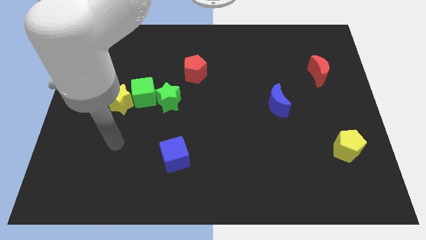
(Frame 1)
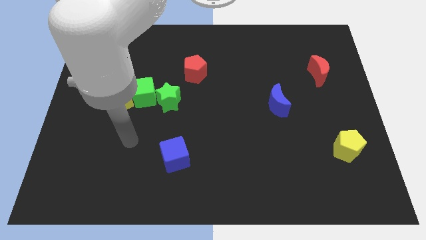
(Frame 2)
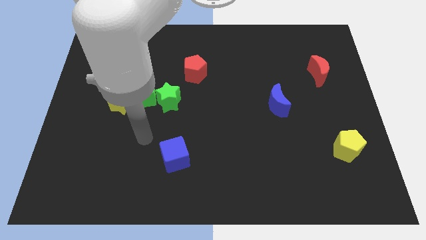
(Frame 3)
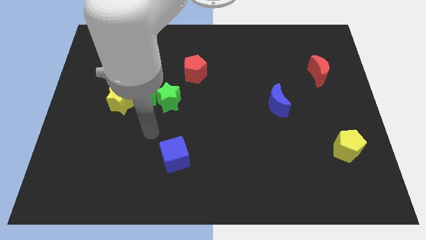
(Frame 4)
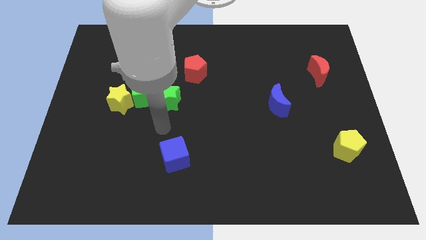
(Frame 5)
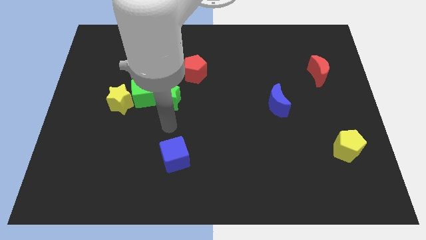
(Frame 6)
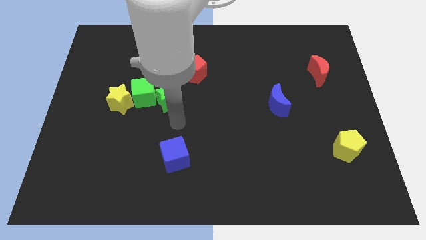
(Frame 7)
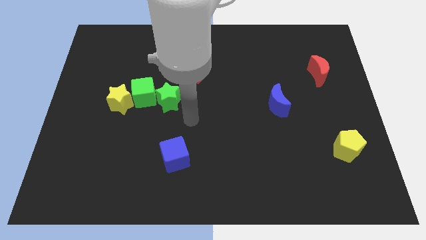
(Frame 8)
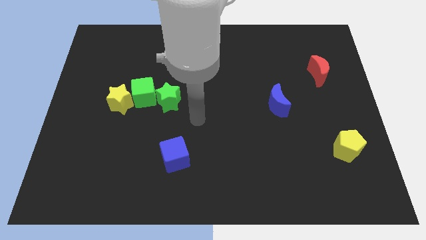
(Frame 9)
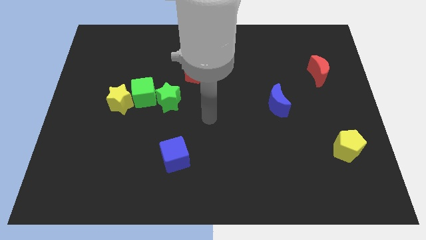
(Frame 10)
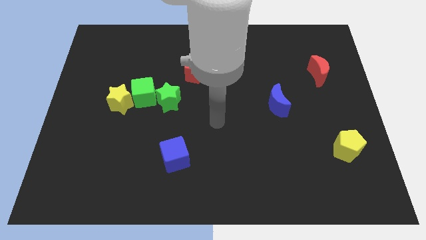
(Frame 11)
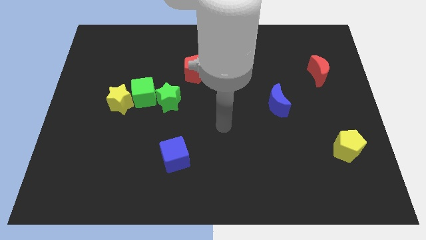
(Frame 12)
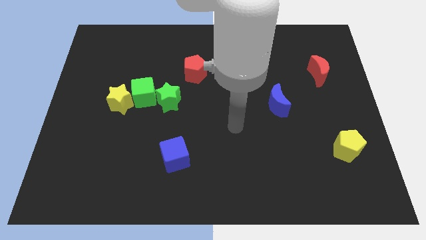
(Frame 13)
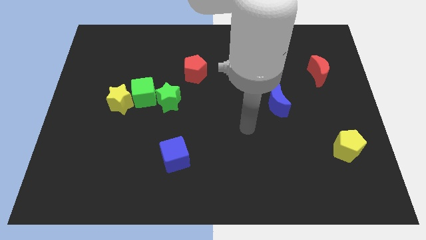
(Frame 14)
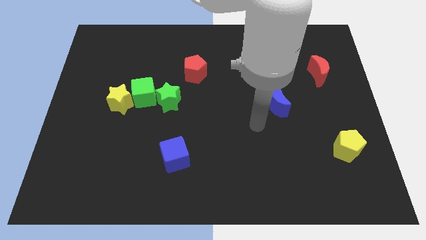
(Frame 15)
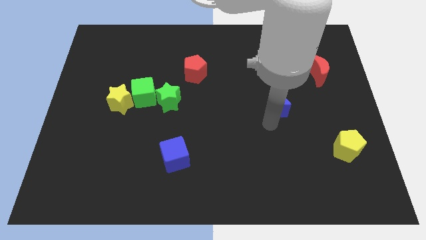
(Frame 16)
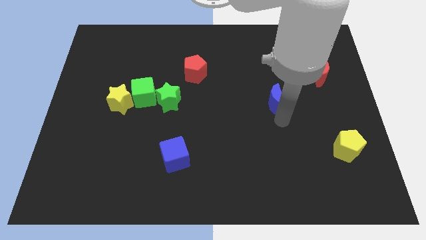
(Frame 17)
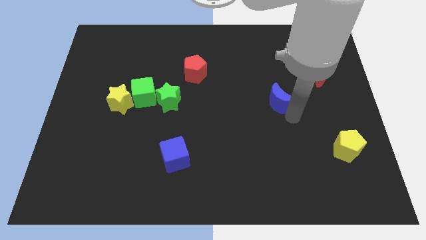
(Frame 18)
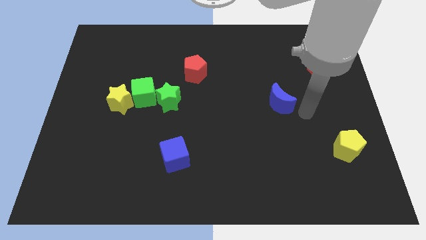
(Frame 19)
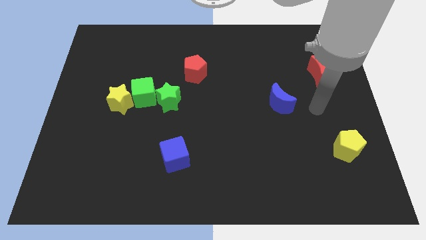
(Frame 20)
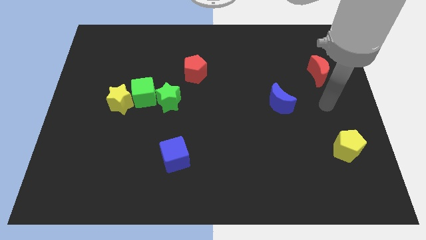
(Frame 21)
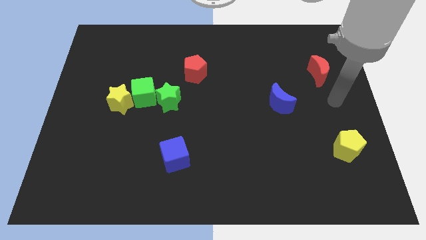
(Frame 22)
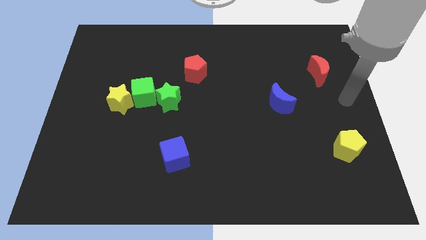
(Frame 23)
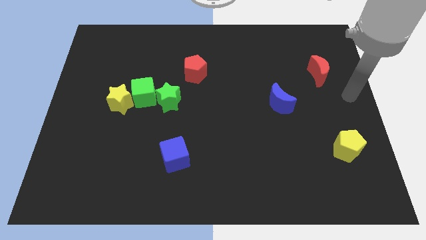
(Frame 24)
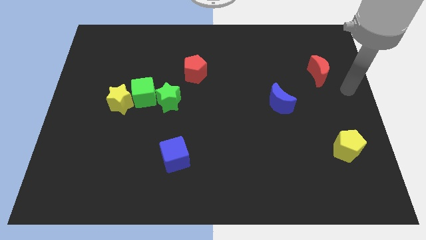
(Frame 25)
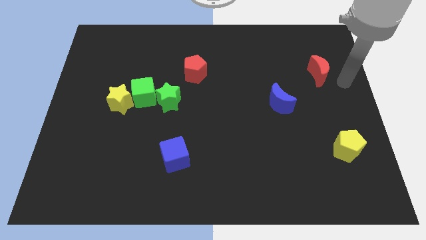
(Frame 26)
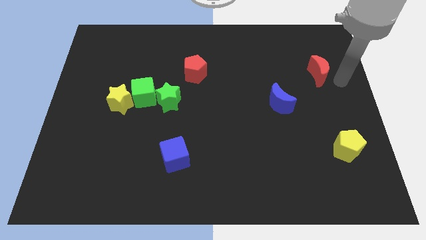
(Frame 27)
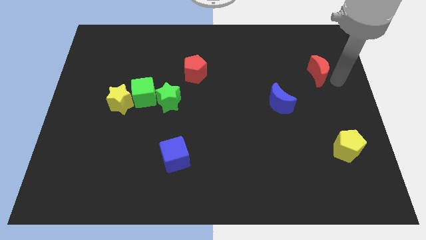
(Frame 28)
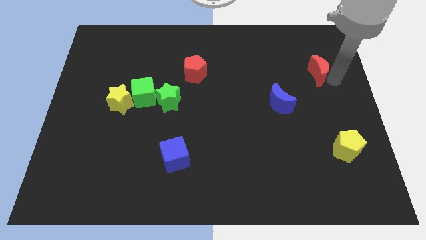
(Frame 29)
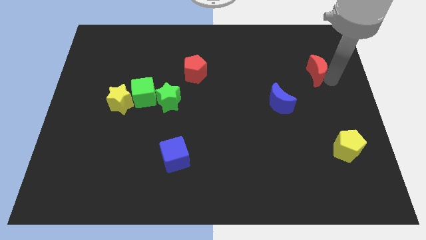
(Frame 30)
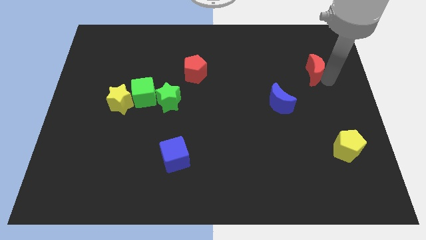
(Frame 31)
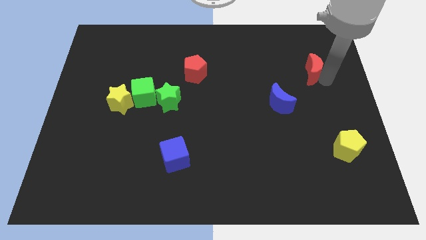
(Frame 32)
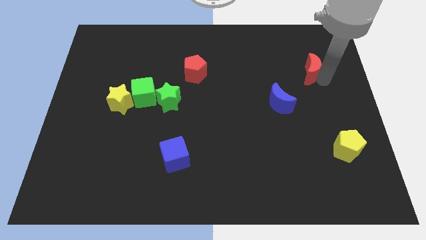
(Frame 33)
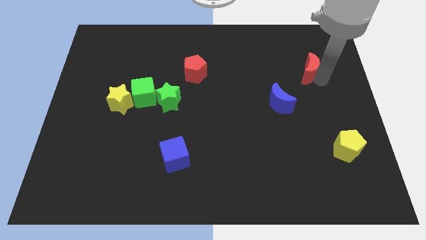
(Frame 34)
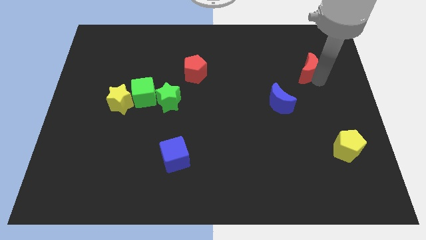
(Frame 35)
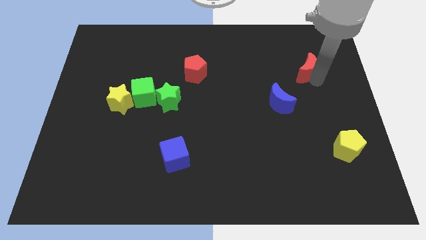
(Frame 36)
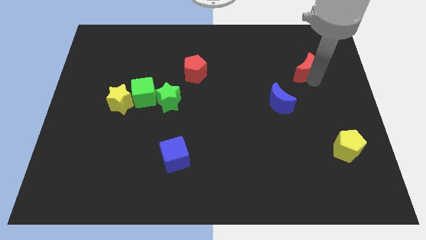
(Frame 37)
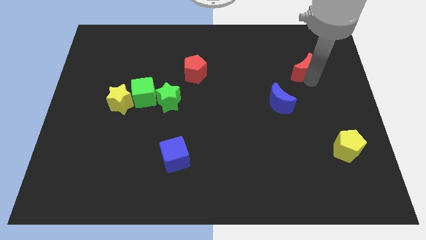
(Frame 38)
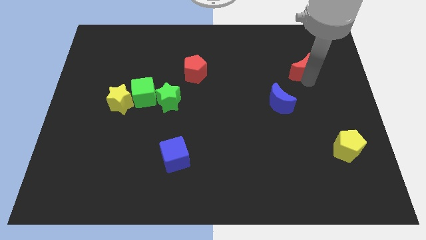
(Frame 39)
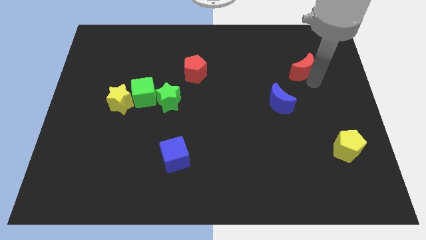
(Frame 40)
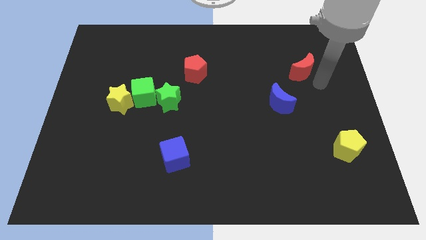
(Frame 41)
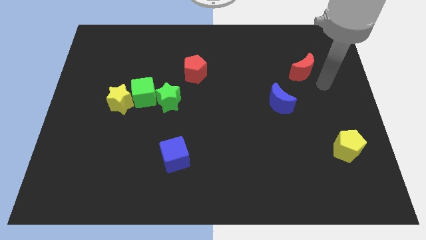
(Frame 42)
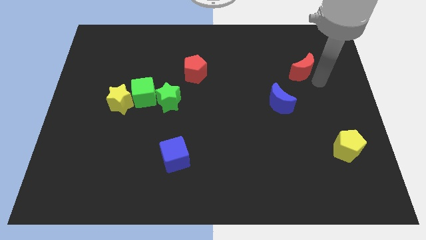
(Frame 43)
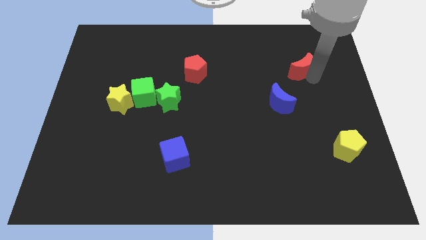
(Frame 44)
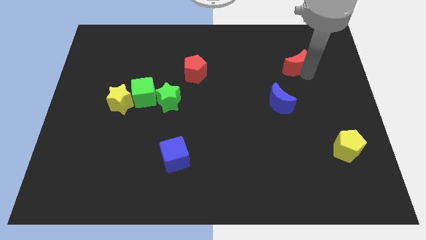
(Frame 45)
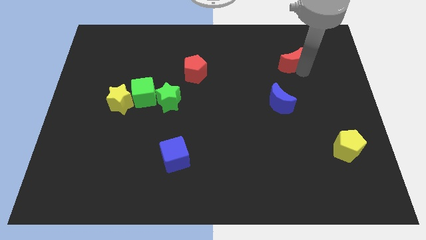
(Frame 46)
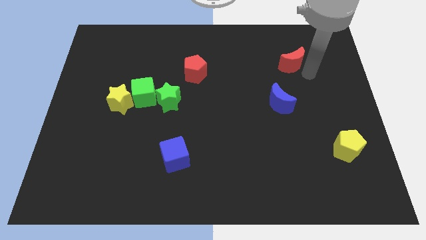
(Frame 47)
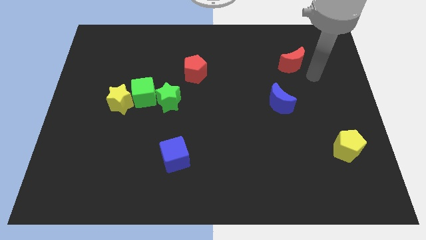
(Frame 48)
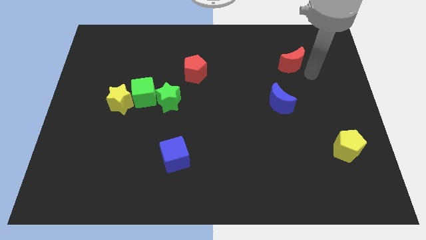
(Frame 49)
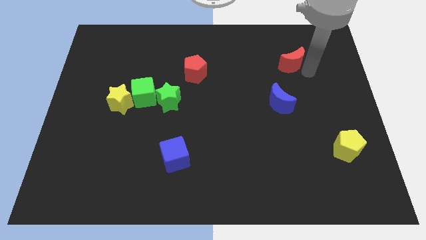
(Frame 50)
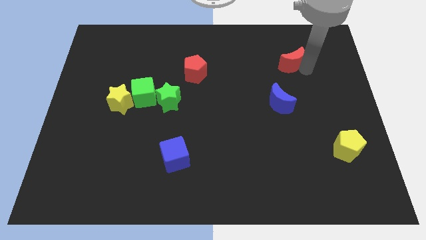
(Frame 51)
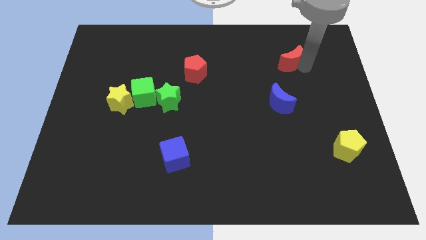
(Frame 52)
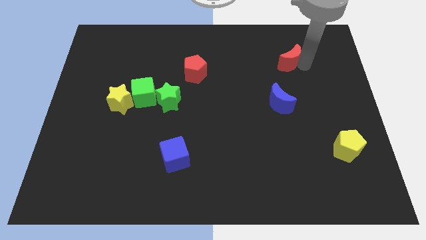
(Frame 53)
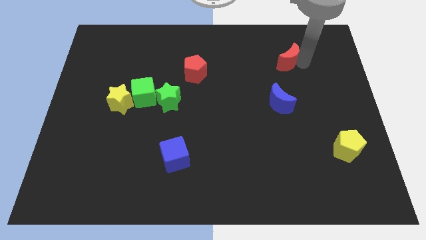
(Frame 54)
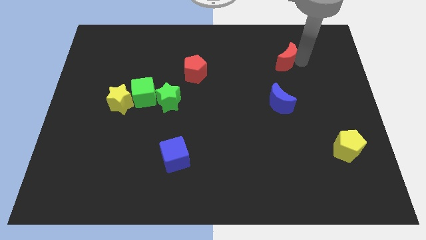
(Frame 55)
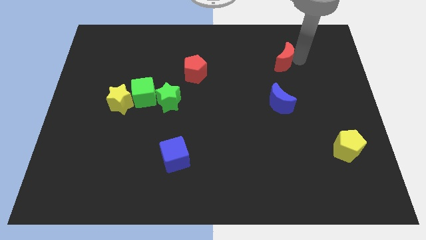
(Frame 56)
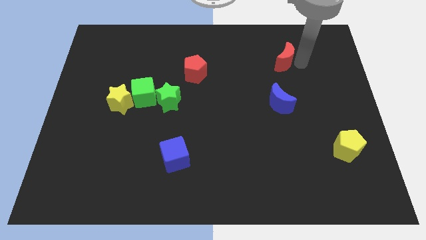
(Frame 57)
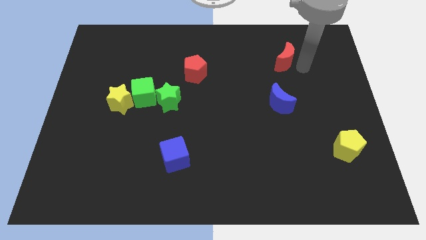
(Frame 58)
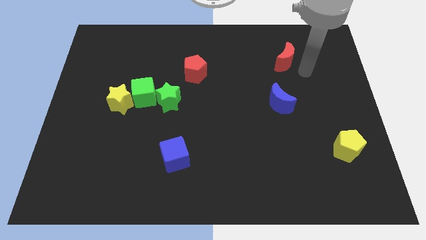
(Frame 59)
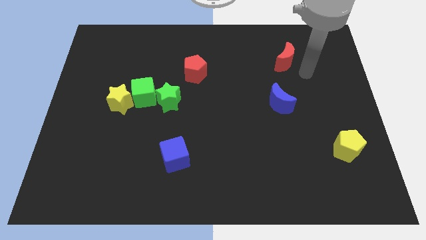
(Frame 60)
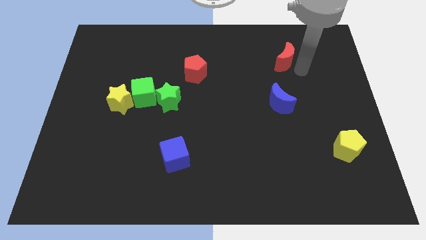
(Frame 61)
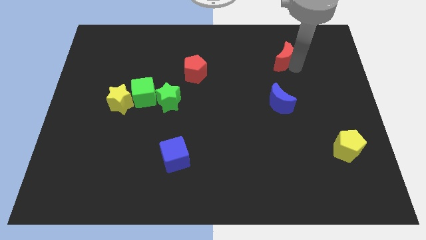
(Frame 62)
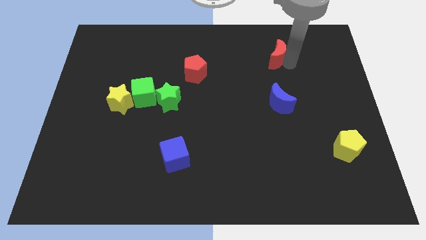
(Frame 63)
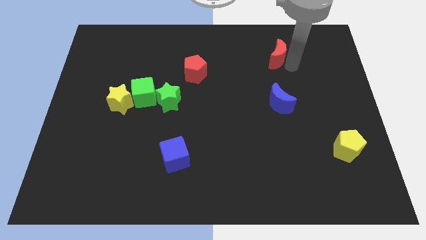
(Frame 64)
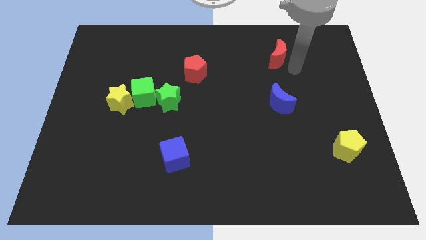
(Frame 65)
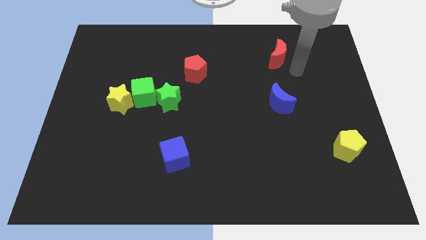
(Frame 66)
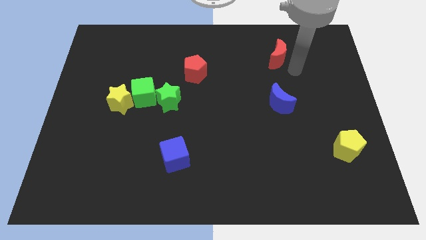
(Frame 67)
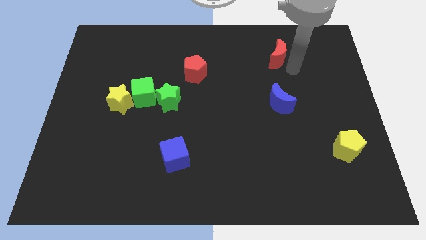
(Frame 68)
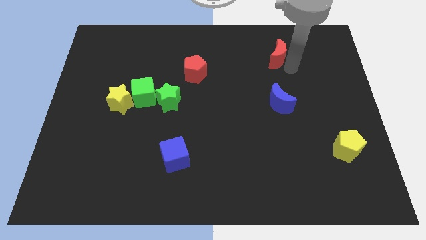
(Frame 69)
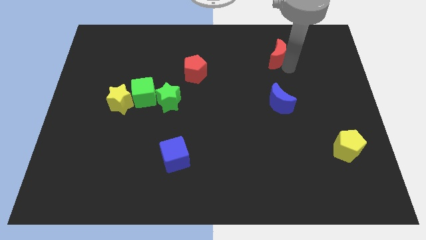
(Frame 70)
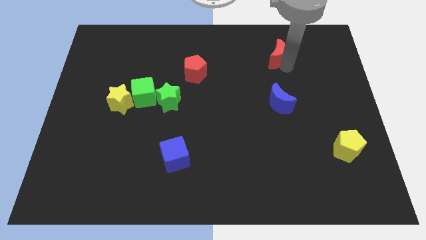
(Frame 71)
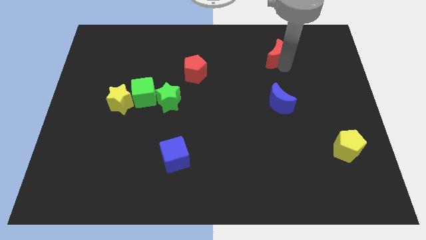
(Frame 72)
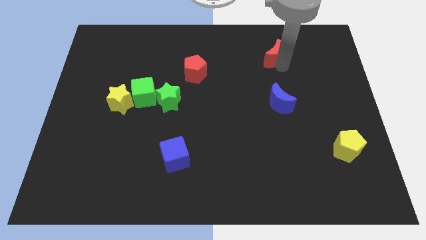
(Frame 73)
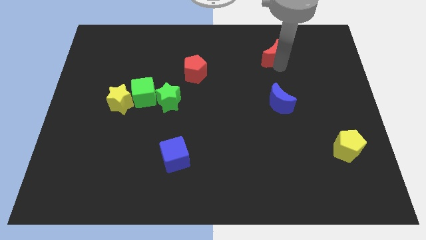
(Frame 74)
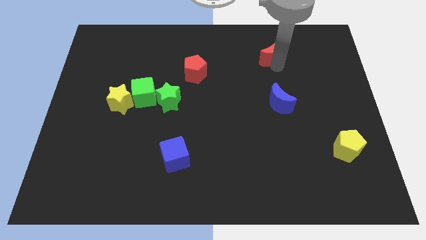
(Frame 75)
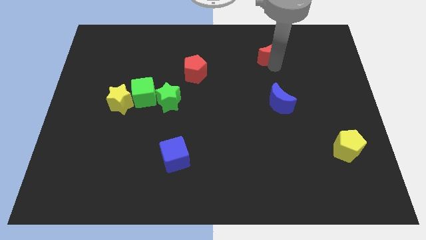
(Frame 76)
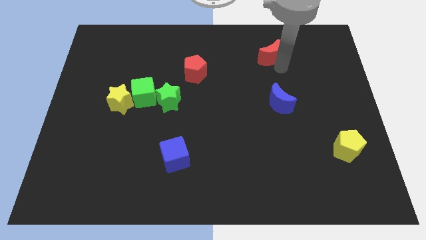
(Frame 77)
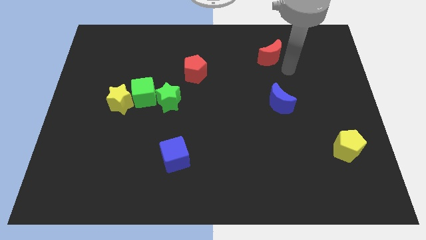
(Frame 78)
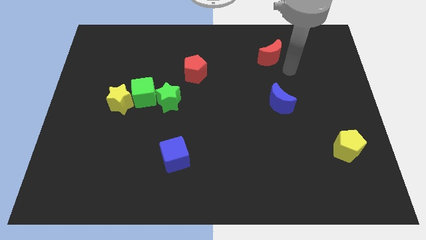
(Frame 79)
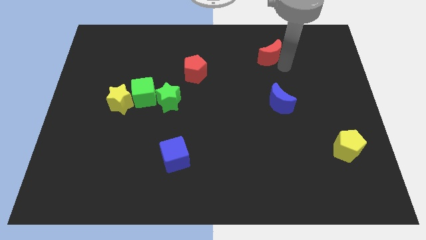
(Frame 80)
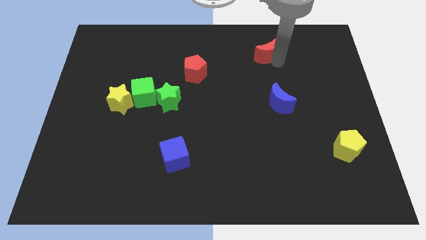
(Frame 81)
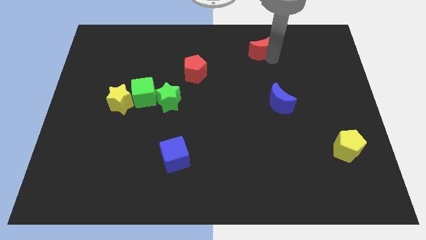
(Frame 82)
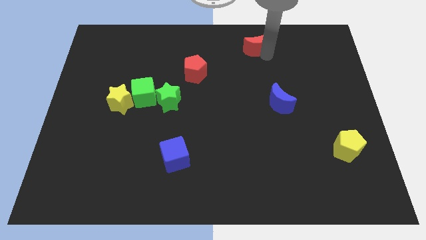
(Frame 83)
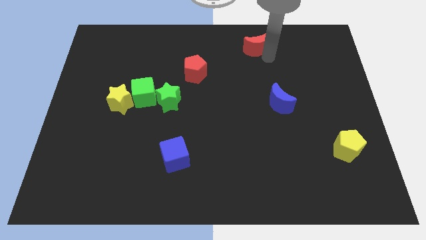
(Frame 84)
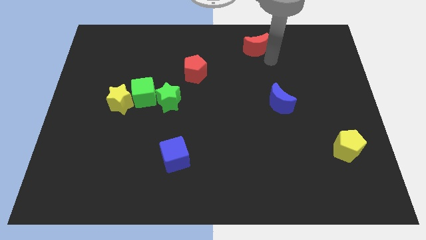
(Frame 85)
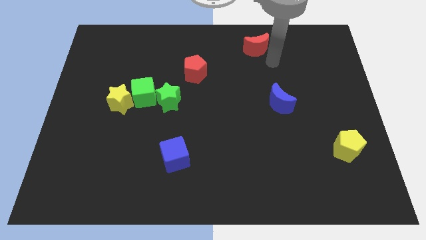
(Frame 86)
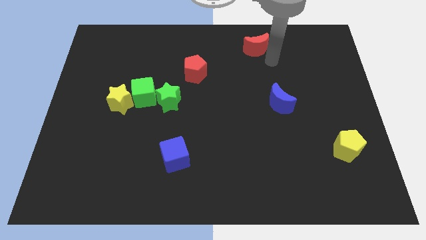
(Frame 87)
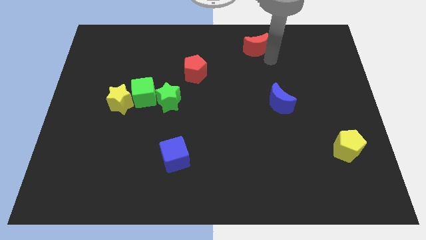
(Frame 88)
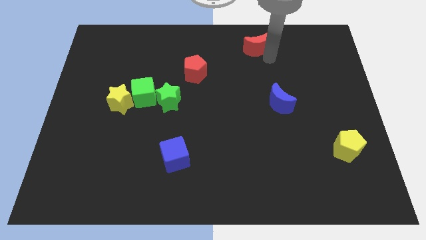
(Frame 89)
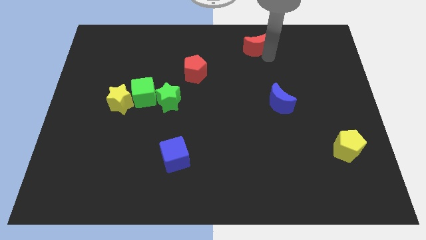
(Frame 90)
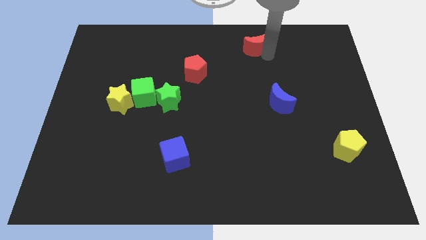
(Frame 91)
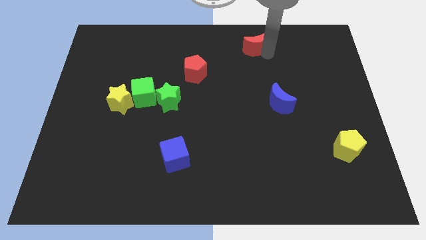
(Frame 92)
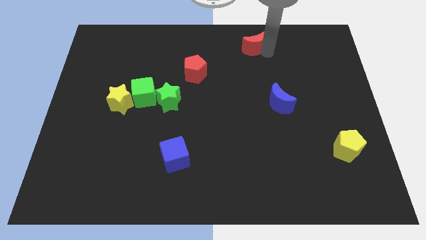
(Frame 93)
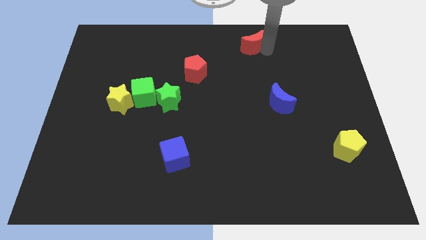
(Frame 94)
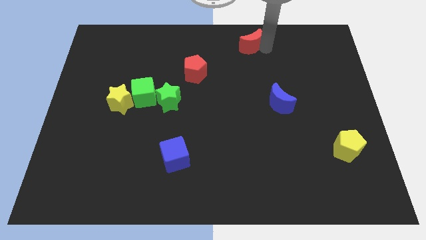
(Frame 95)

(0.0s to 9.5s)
move the red moon to the top side
